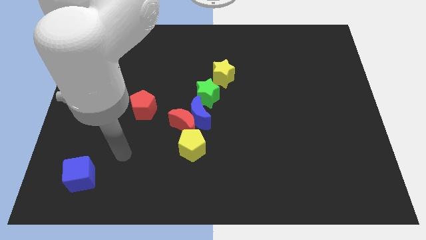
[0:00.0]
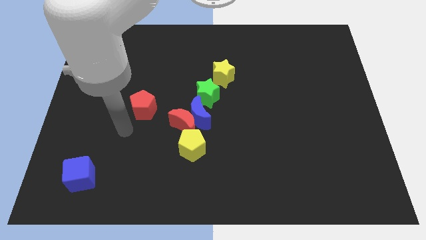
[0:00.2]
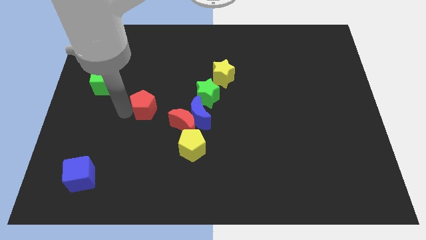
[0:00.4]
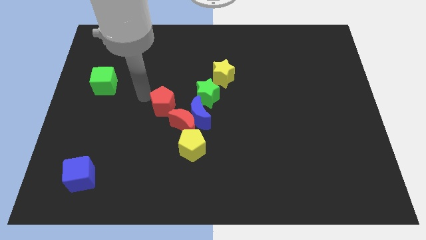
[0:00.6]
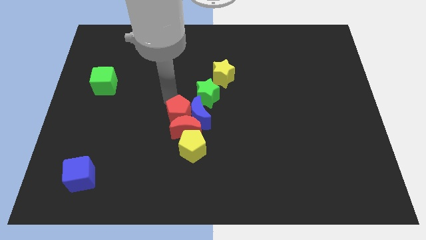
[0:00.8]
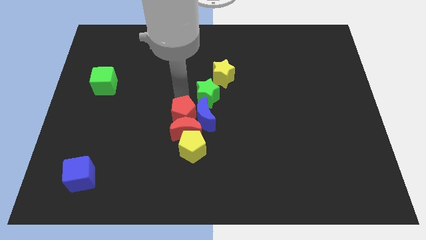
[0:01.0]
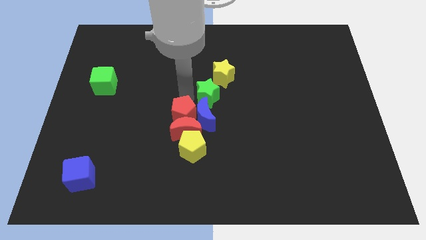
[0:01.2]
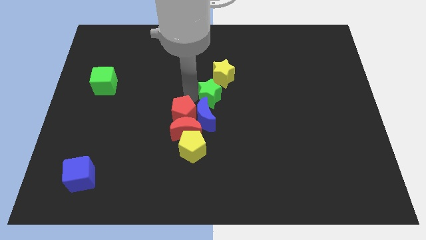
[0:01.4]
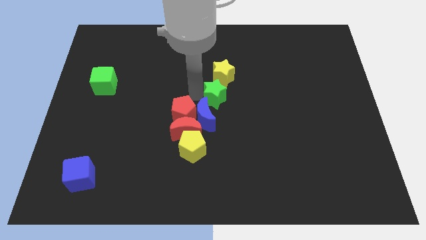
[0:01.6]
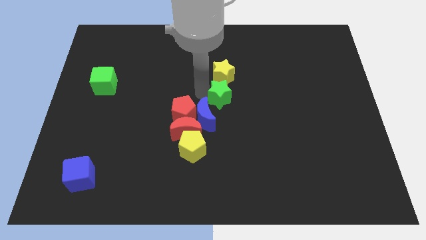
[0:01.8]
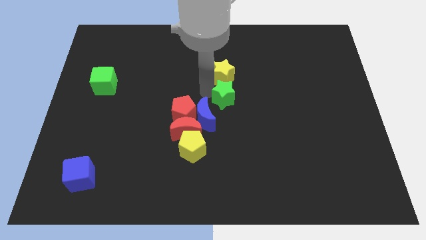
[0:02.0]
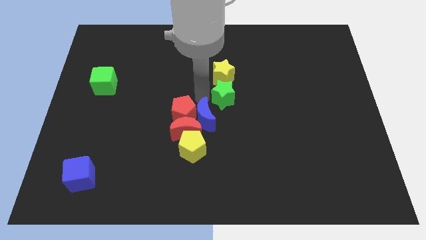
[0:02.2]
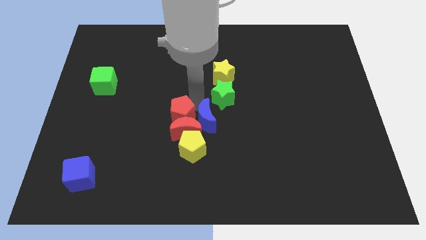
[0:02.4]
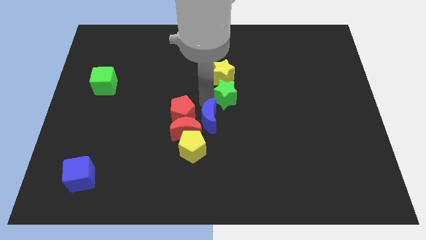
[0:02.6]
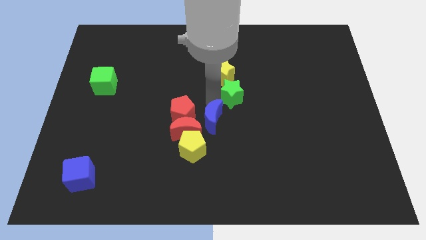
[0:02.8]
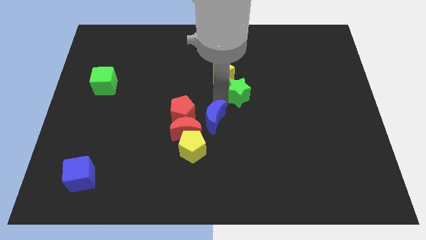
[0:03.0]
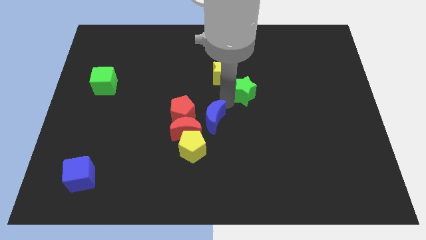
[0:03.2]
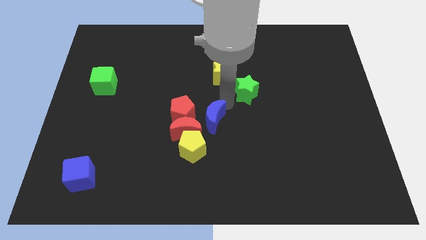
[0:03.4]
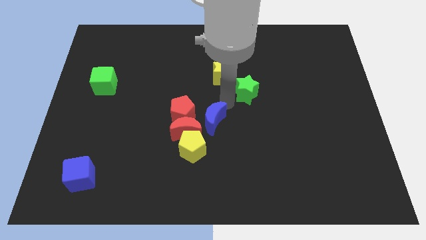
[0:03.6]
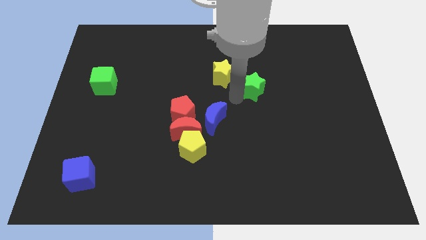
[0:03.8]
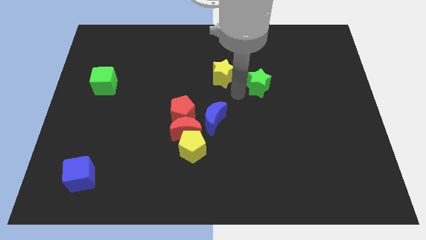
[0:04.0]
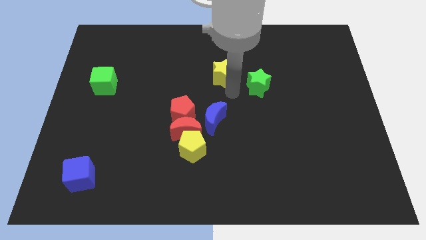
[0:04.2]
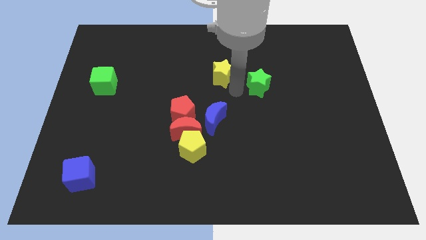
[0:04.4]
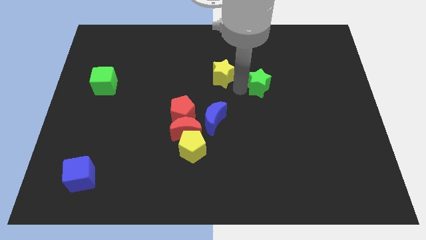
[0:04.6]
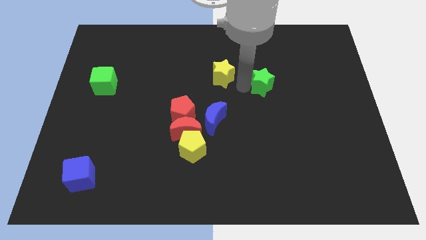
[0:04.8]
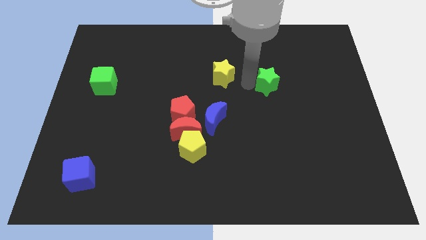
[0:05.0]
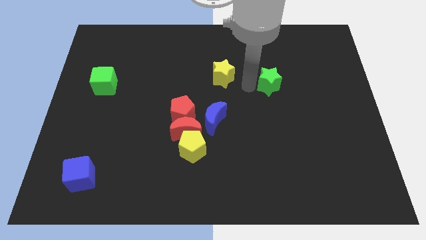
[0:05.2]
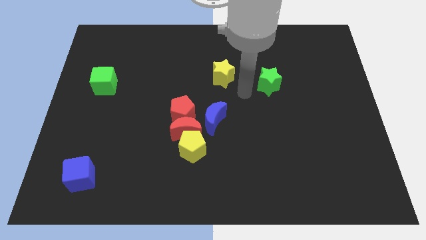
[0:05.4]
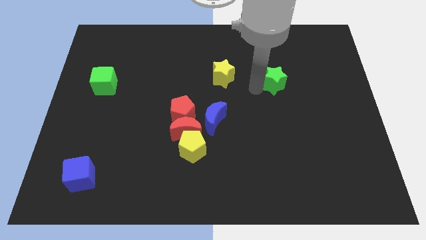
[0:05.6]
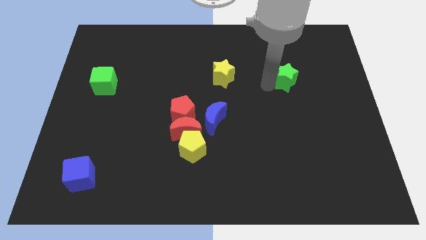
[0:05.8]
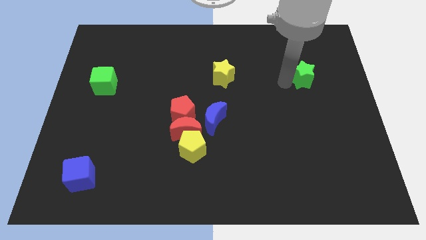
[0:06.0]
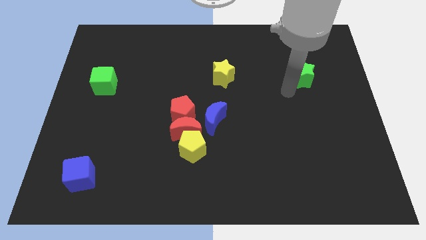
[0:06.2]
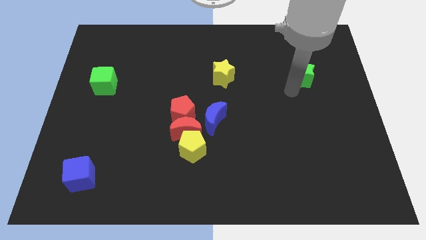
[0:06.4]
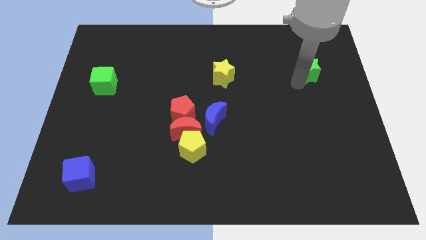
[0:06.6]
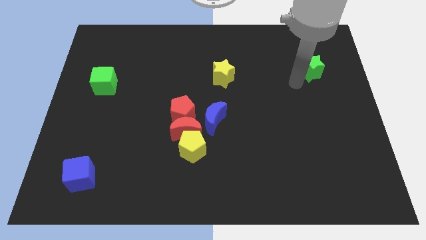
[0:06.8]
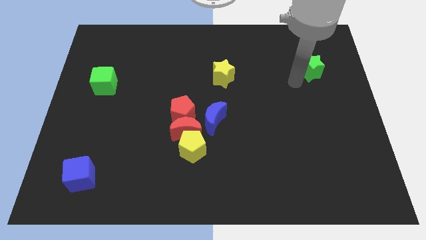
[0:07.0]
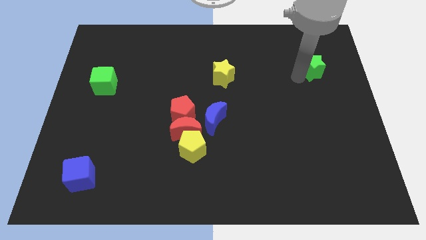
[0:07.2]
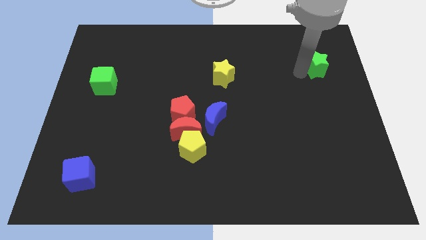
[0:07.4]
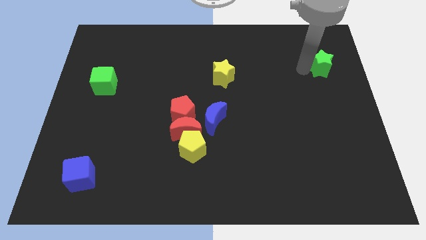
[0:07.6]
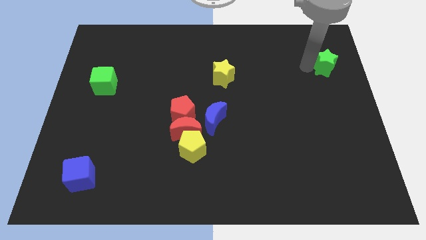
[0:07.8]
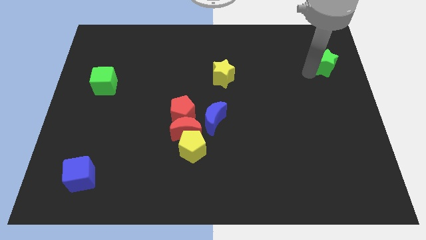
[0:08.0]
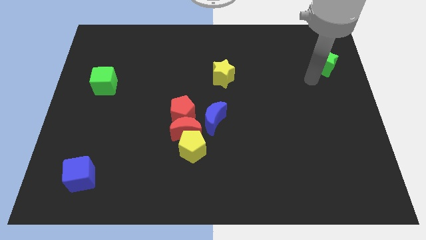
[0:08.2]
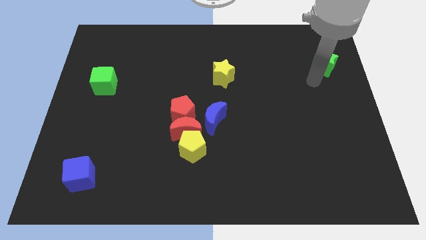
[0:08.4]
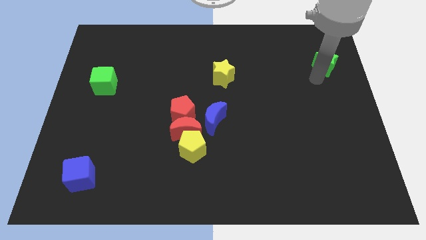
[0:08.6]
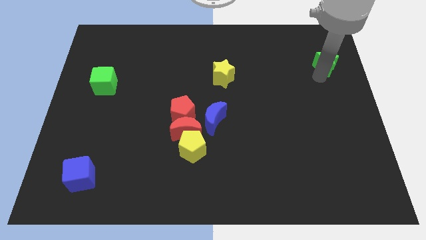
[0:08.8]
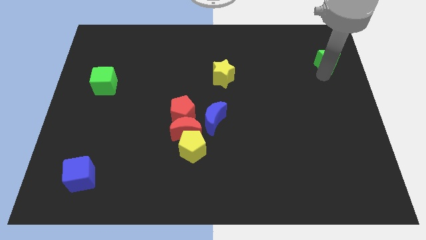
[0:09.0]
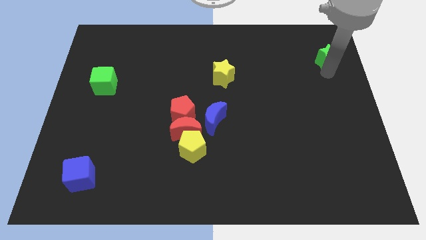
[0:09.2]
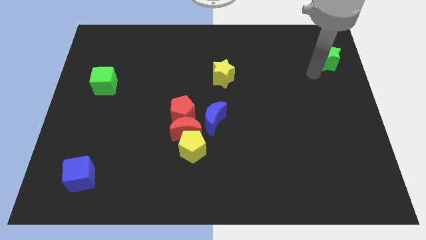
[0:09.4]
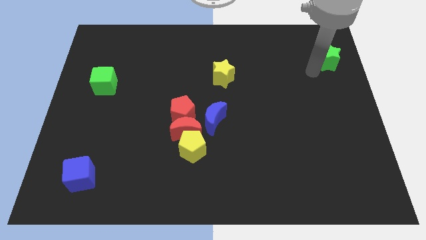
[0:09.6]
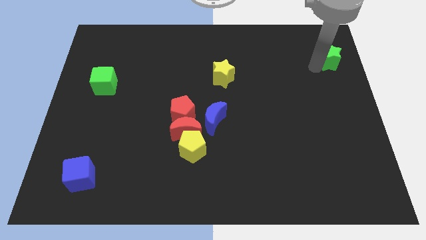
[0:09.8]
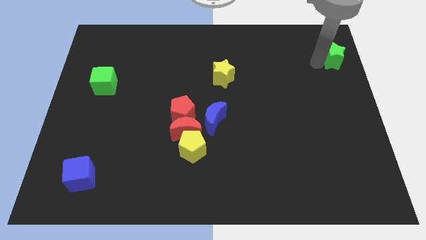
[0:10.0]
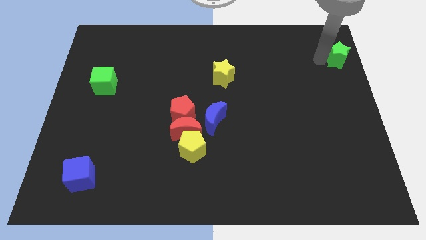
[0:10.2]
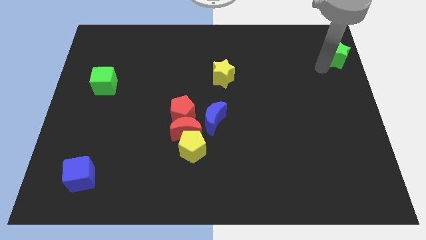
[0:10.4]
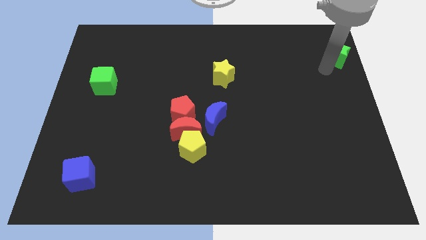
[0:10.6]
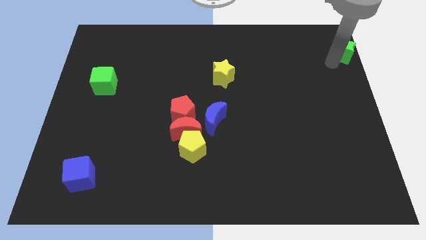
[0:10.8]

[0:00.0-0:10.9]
slide the green star to the top right of the board

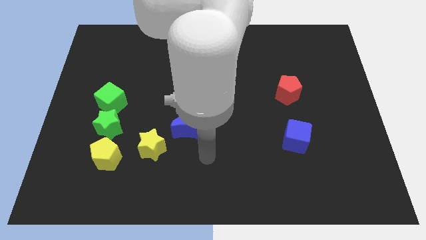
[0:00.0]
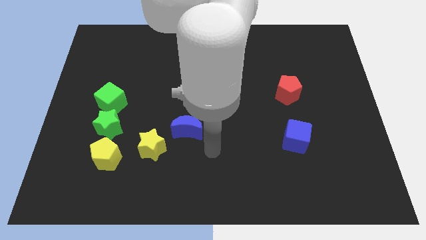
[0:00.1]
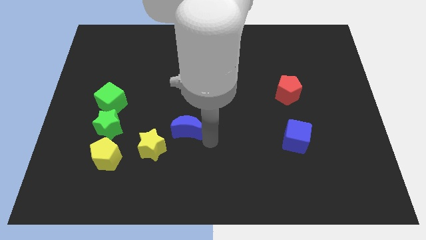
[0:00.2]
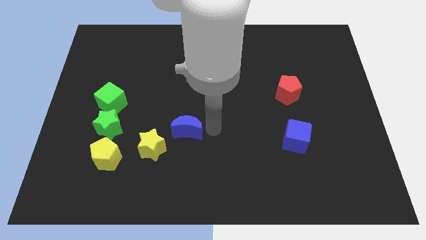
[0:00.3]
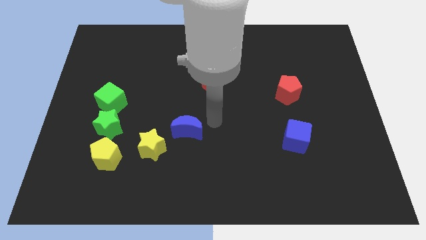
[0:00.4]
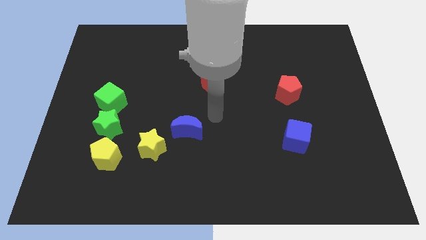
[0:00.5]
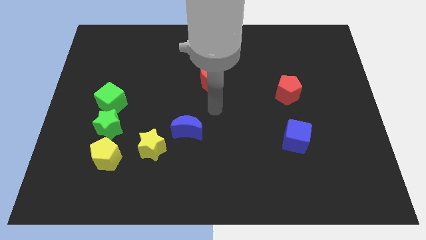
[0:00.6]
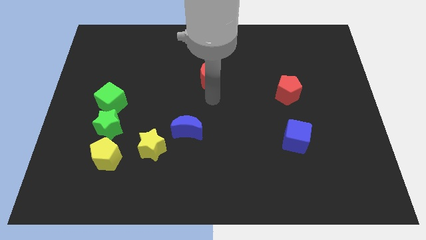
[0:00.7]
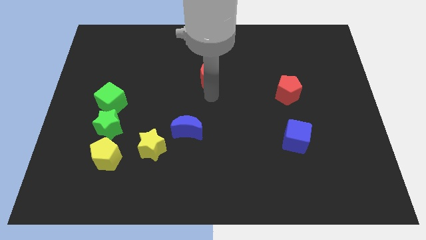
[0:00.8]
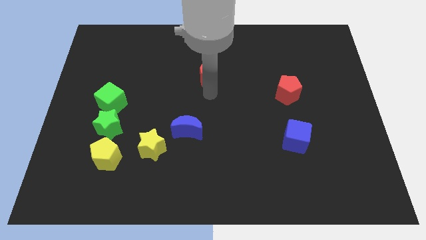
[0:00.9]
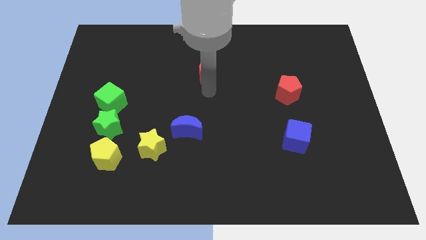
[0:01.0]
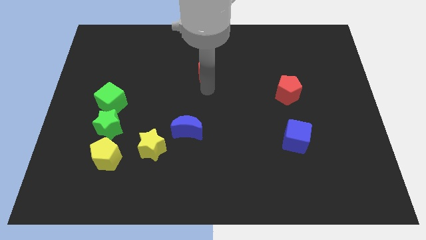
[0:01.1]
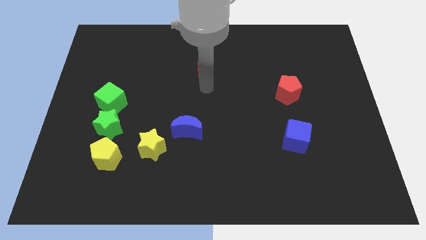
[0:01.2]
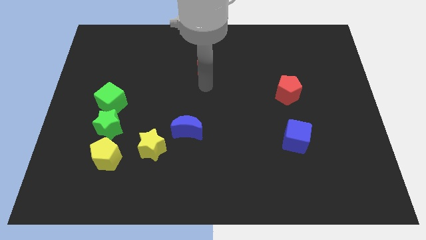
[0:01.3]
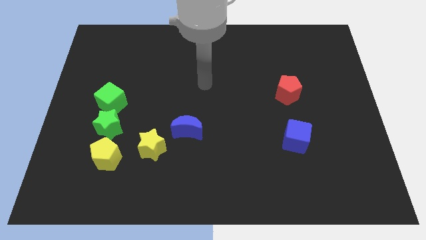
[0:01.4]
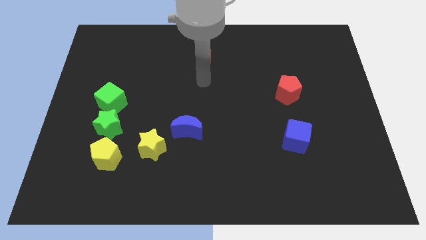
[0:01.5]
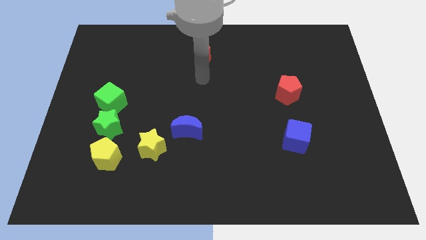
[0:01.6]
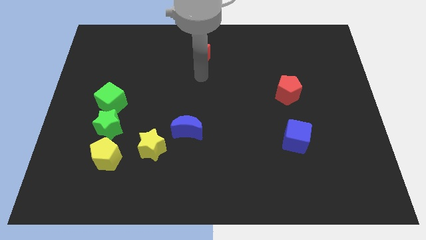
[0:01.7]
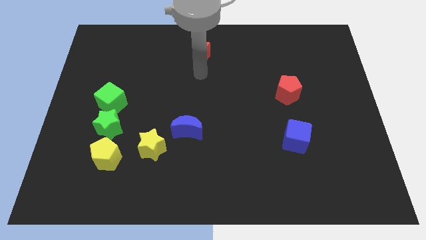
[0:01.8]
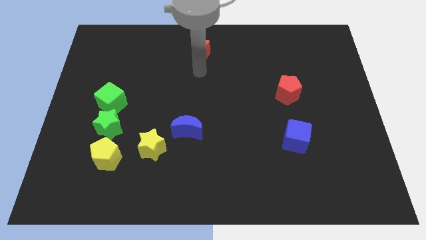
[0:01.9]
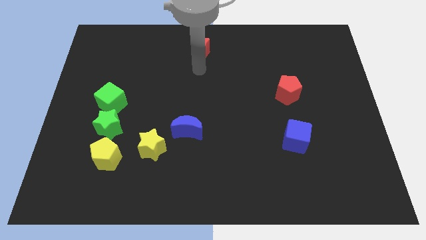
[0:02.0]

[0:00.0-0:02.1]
move the red moon to the top
